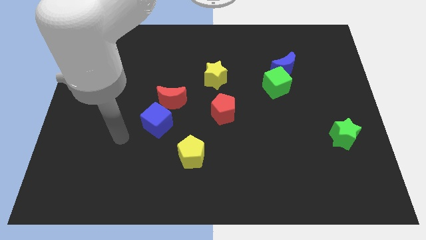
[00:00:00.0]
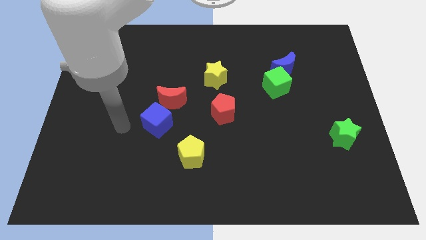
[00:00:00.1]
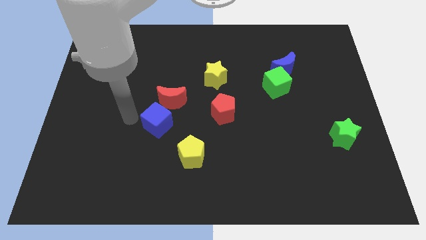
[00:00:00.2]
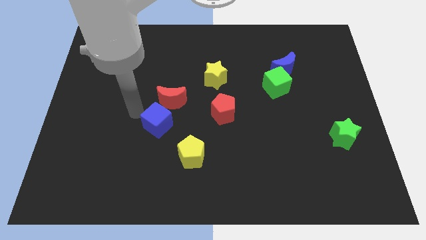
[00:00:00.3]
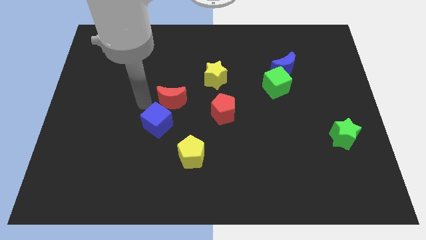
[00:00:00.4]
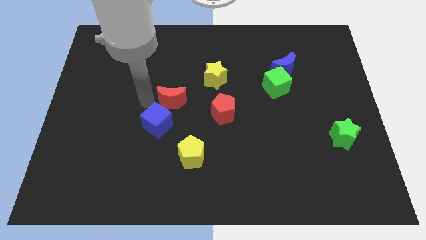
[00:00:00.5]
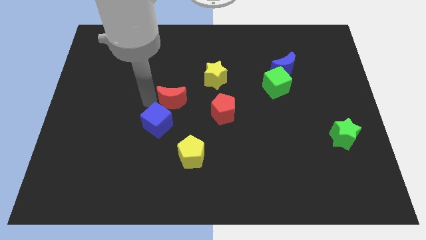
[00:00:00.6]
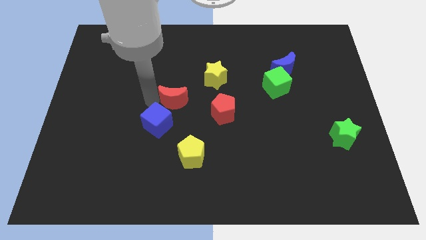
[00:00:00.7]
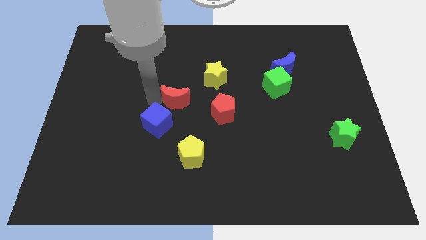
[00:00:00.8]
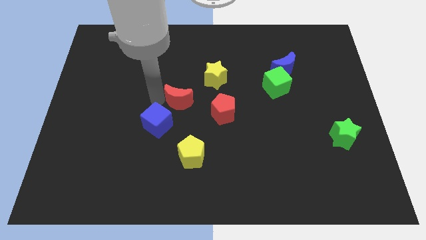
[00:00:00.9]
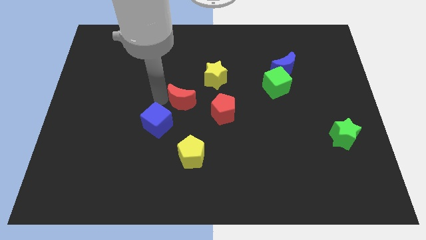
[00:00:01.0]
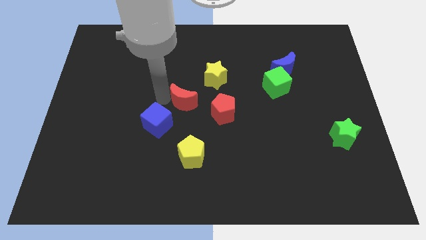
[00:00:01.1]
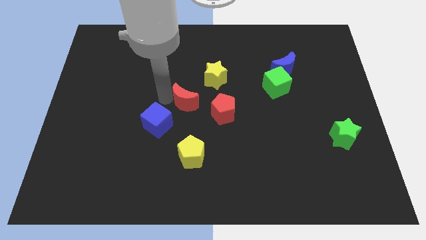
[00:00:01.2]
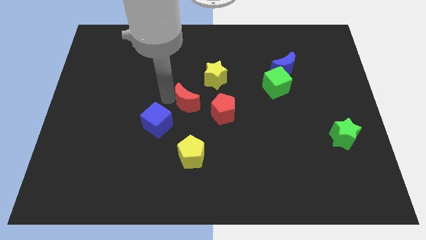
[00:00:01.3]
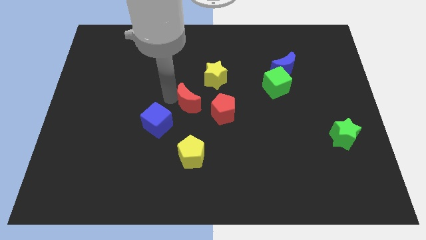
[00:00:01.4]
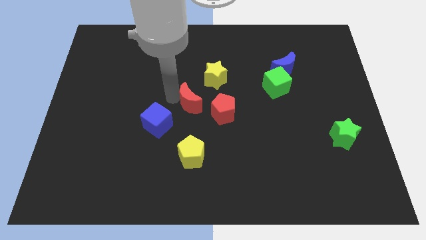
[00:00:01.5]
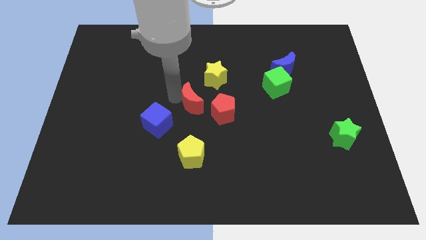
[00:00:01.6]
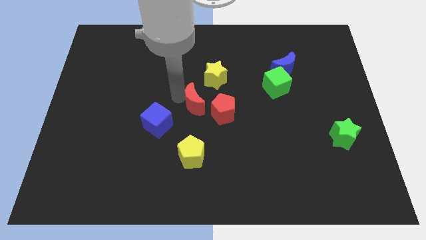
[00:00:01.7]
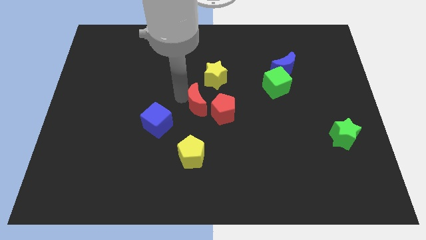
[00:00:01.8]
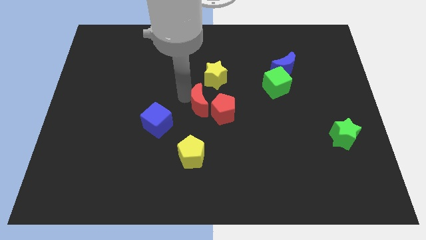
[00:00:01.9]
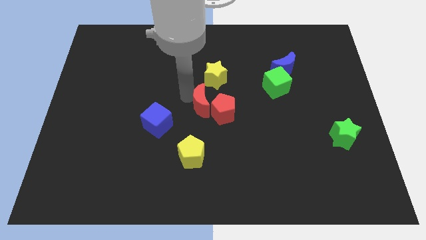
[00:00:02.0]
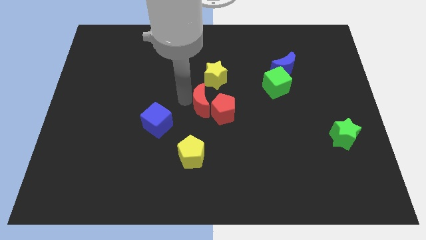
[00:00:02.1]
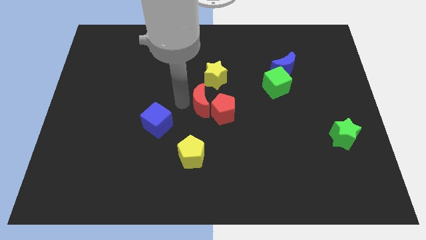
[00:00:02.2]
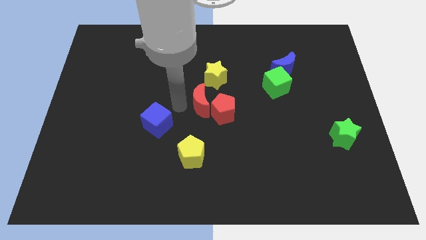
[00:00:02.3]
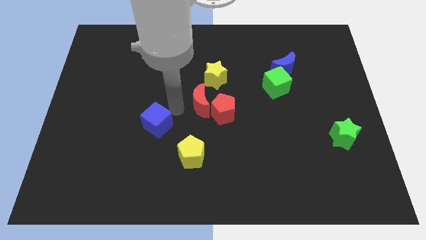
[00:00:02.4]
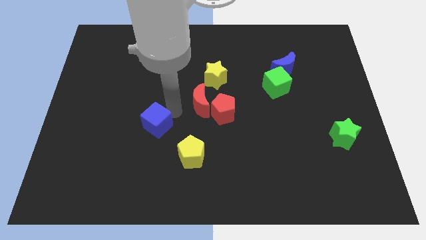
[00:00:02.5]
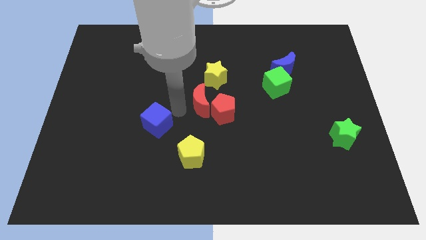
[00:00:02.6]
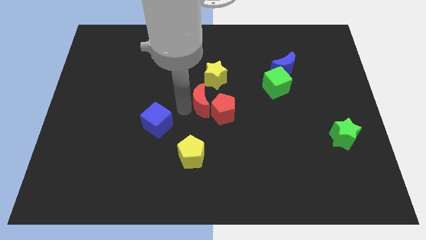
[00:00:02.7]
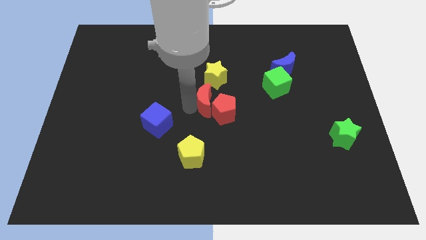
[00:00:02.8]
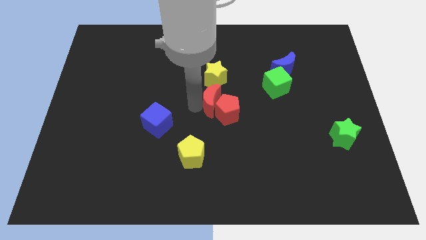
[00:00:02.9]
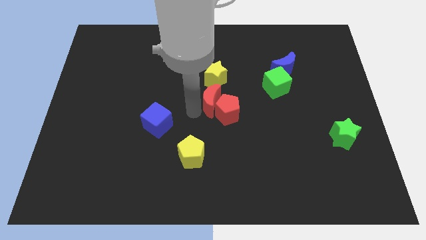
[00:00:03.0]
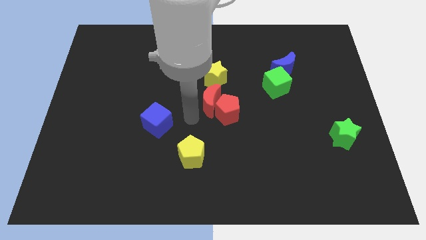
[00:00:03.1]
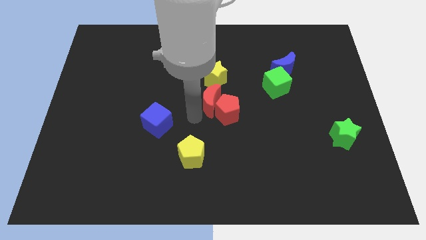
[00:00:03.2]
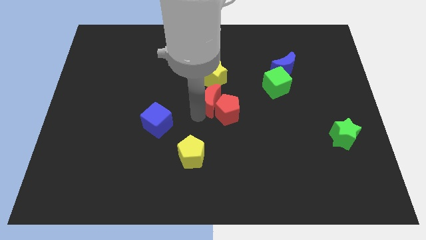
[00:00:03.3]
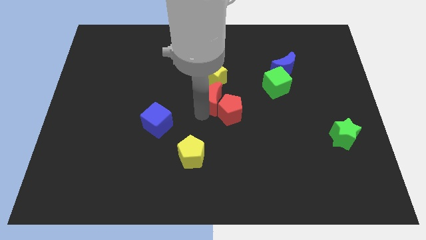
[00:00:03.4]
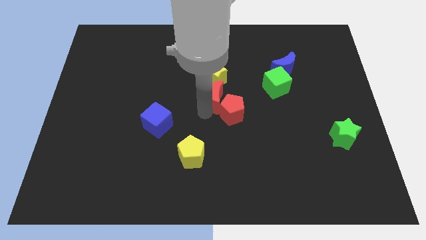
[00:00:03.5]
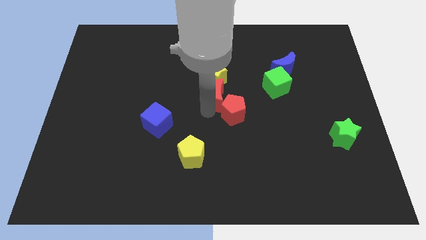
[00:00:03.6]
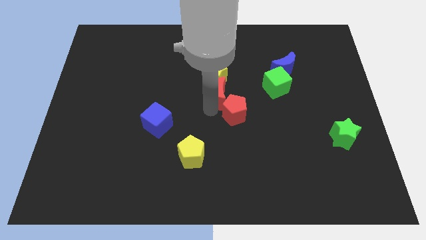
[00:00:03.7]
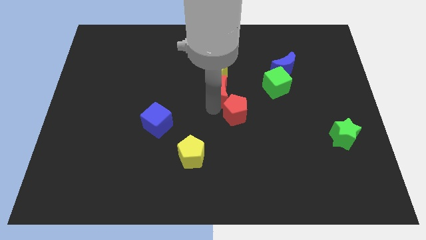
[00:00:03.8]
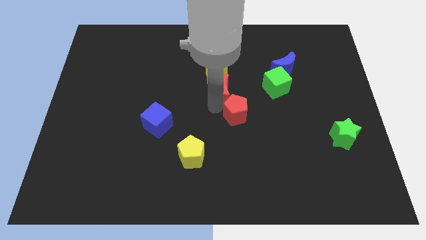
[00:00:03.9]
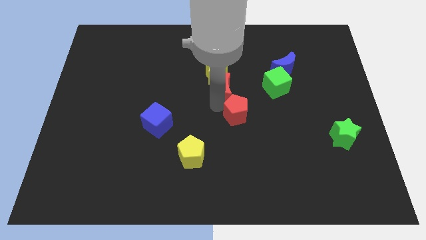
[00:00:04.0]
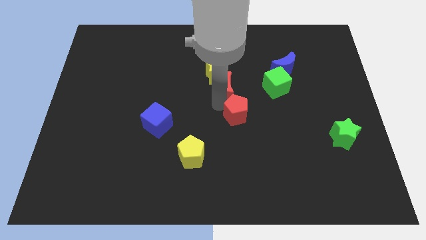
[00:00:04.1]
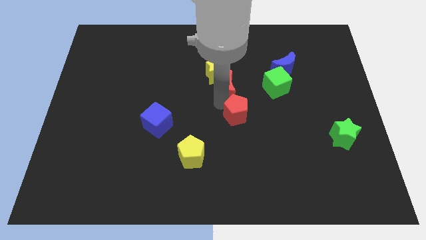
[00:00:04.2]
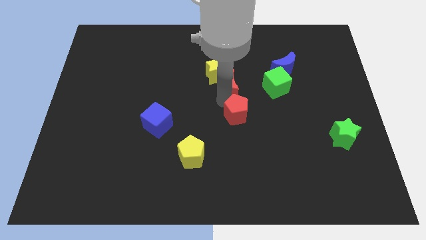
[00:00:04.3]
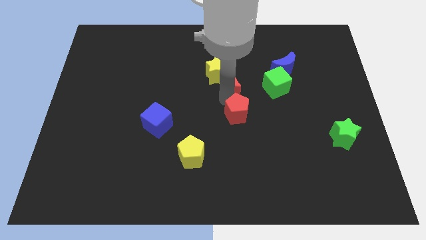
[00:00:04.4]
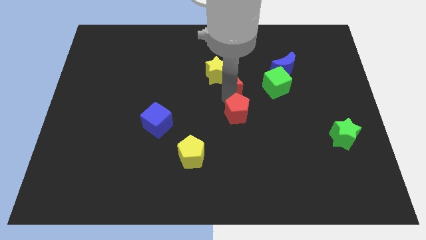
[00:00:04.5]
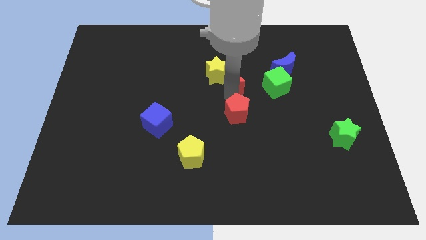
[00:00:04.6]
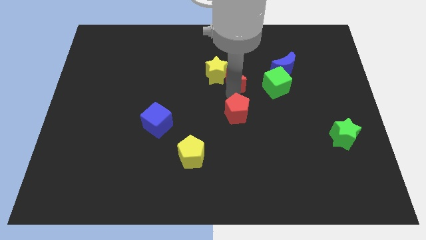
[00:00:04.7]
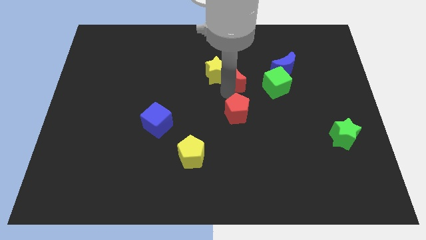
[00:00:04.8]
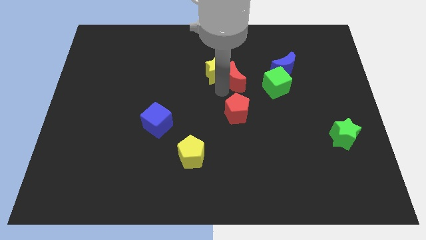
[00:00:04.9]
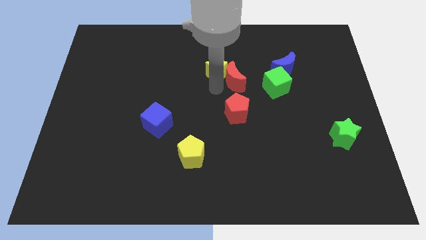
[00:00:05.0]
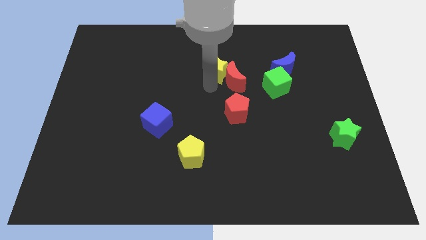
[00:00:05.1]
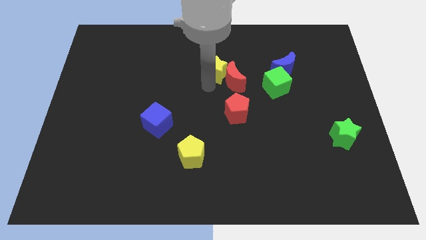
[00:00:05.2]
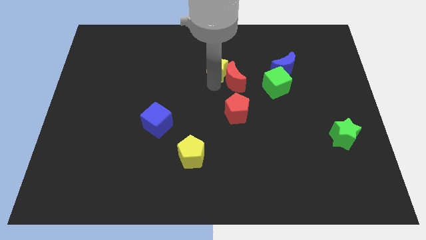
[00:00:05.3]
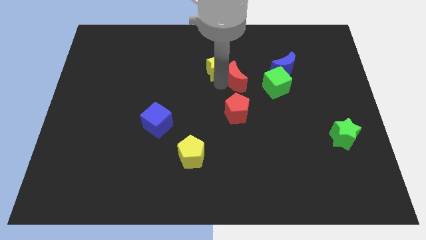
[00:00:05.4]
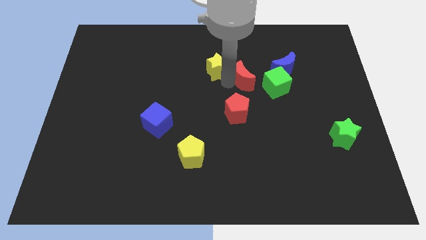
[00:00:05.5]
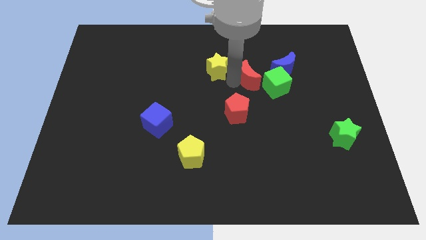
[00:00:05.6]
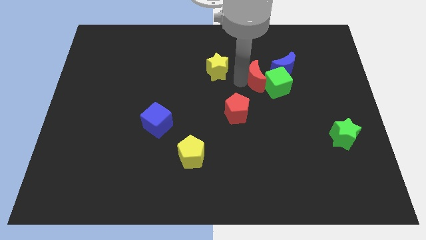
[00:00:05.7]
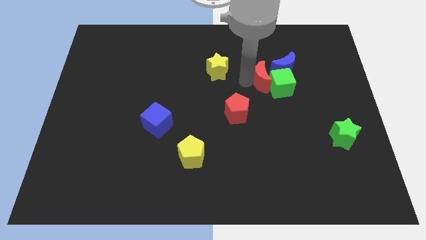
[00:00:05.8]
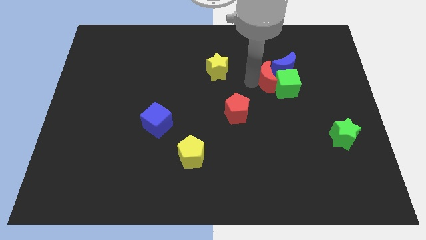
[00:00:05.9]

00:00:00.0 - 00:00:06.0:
slide the red moon next to the blue moon

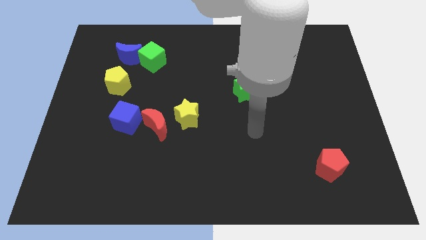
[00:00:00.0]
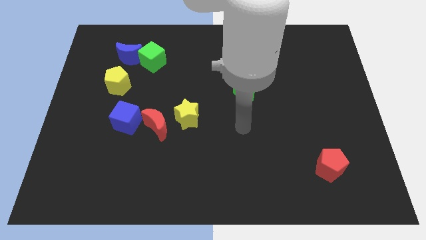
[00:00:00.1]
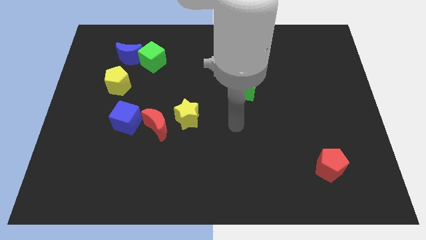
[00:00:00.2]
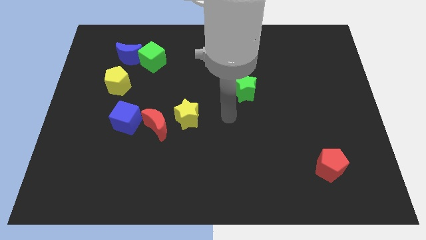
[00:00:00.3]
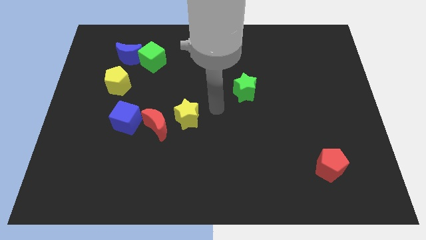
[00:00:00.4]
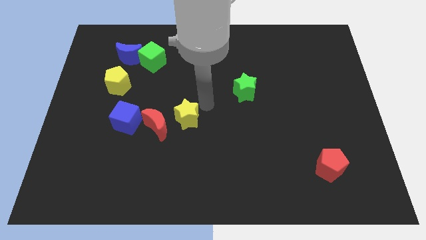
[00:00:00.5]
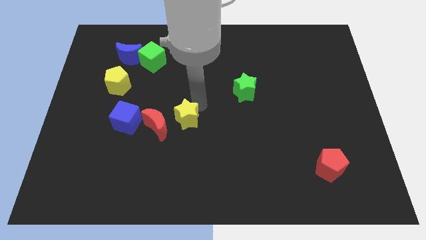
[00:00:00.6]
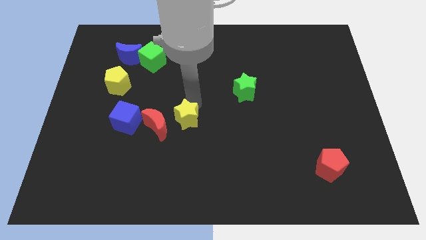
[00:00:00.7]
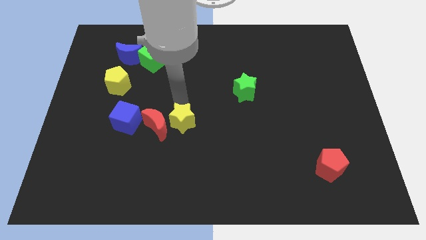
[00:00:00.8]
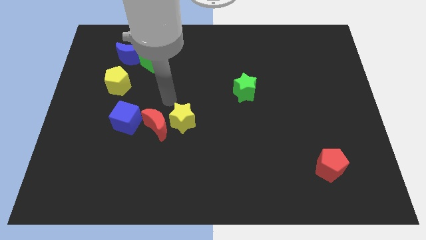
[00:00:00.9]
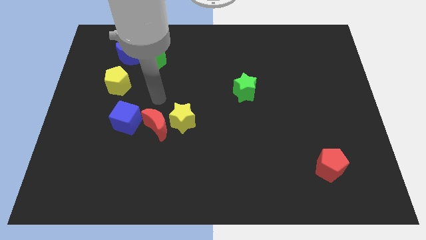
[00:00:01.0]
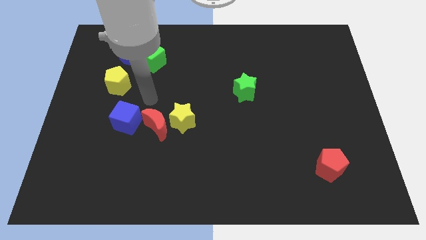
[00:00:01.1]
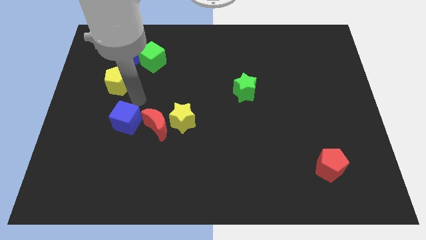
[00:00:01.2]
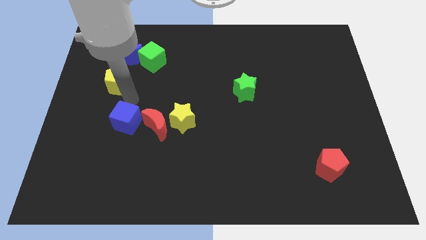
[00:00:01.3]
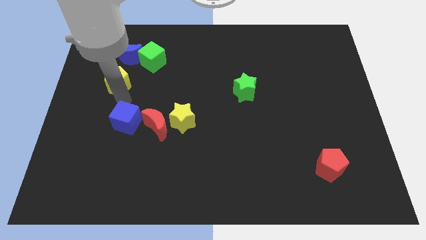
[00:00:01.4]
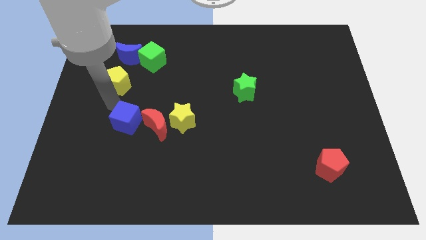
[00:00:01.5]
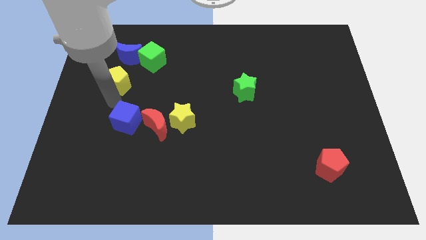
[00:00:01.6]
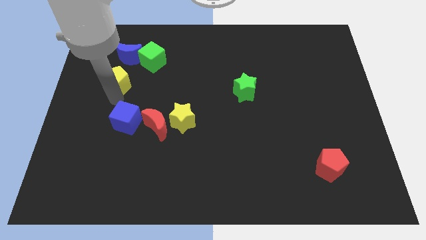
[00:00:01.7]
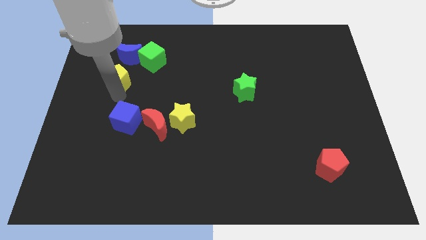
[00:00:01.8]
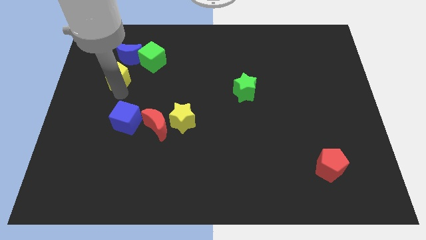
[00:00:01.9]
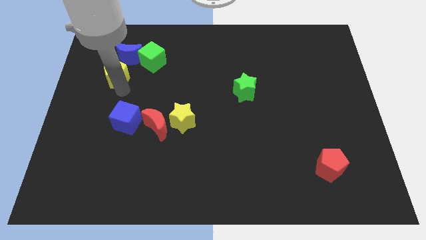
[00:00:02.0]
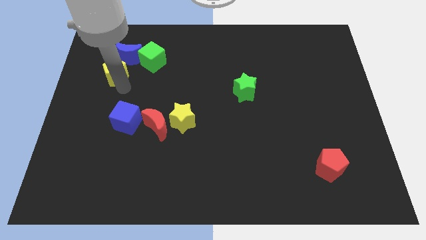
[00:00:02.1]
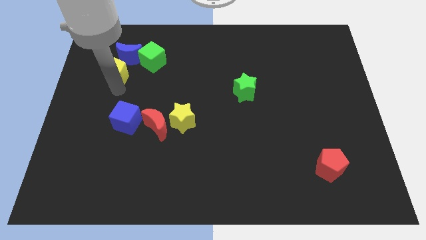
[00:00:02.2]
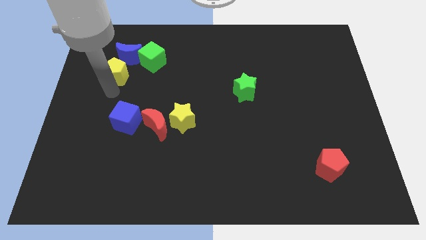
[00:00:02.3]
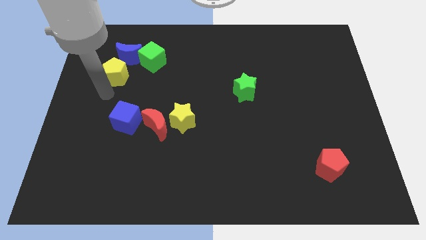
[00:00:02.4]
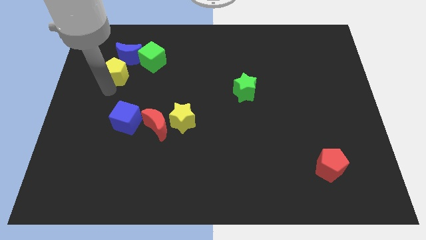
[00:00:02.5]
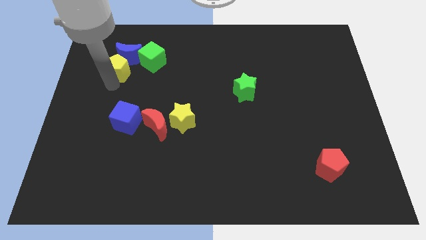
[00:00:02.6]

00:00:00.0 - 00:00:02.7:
put the yellow pentagon towards the blue moon
